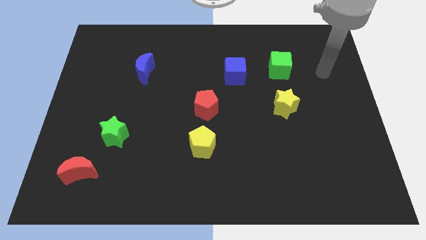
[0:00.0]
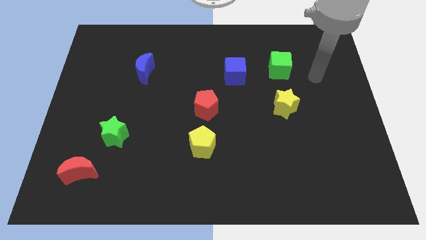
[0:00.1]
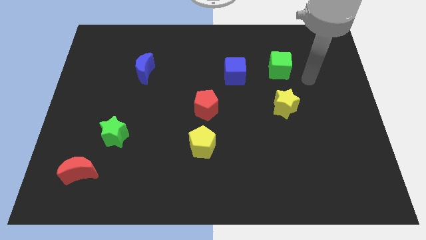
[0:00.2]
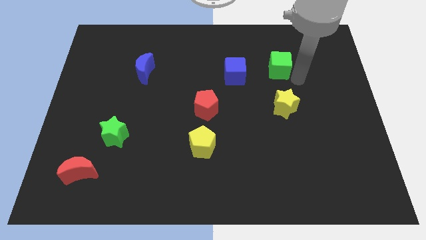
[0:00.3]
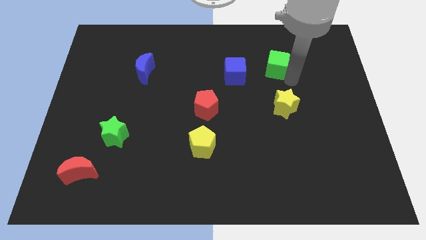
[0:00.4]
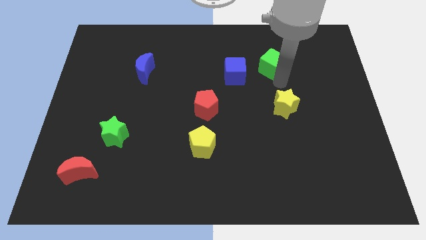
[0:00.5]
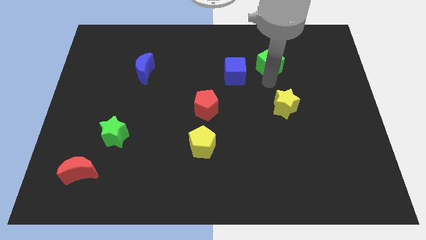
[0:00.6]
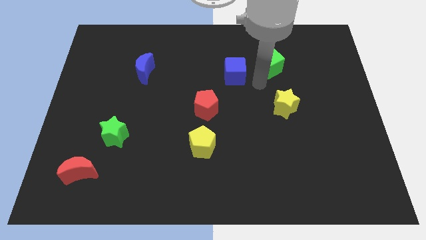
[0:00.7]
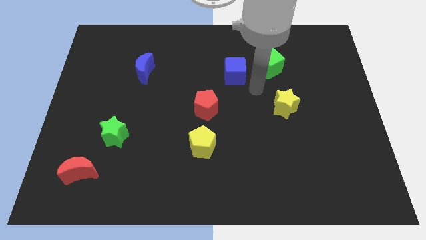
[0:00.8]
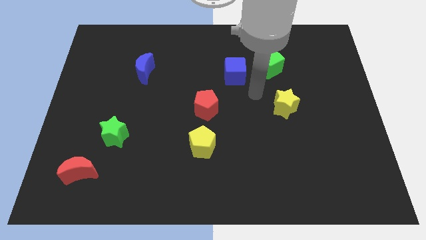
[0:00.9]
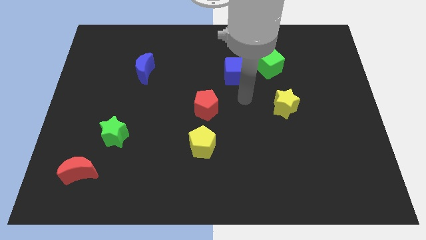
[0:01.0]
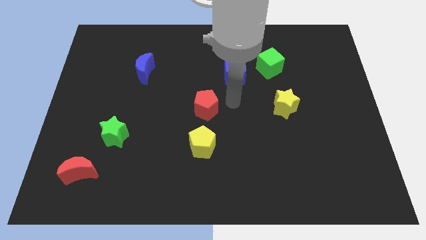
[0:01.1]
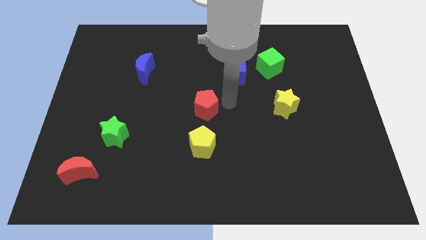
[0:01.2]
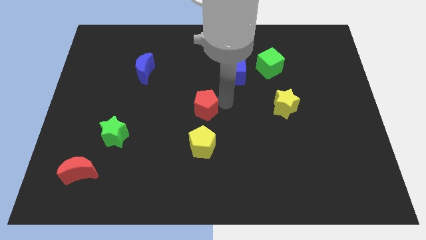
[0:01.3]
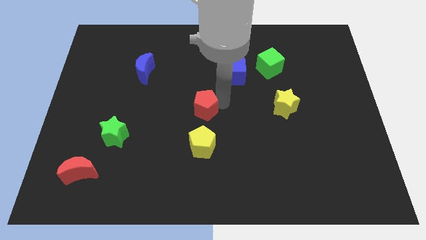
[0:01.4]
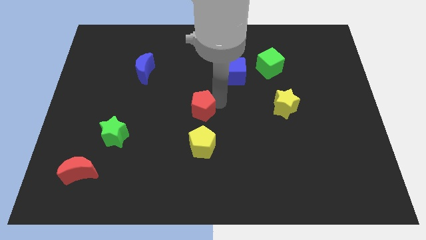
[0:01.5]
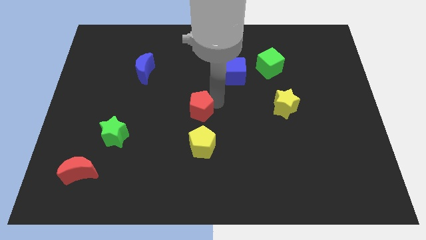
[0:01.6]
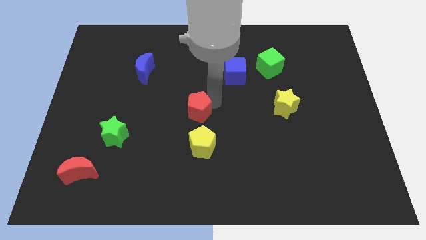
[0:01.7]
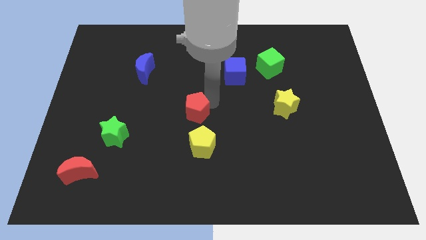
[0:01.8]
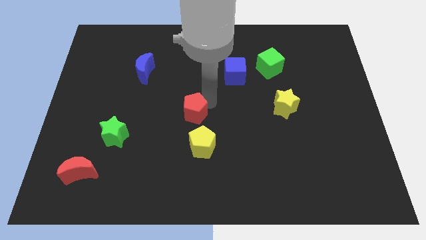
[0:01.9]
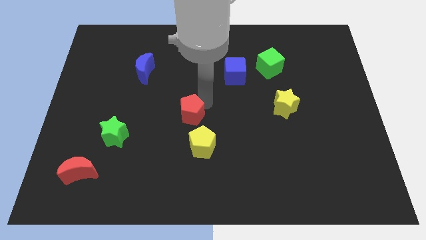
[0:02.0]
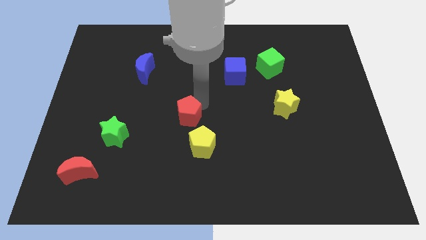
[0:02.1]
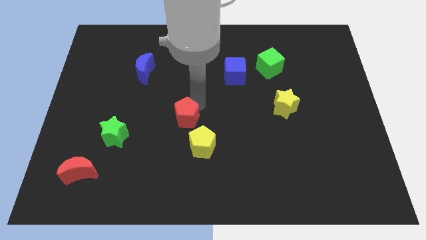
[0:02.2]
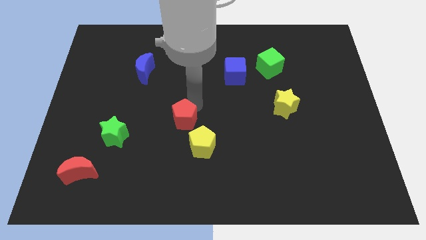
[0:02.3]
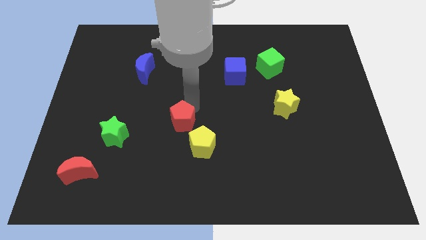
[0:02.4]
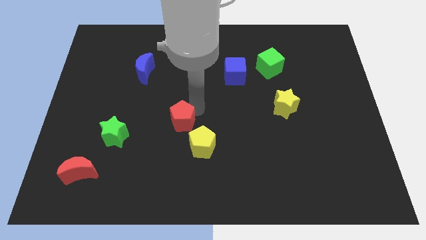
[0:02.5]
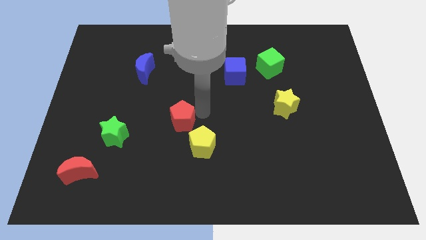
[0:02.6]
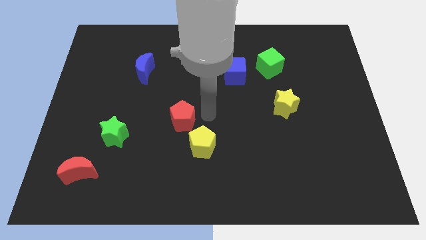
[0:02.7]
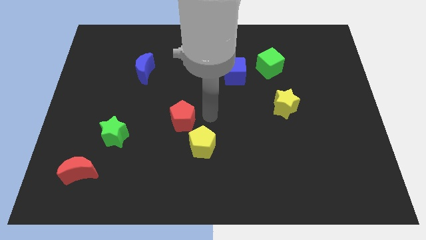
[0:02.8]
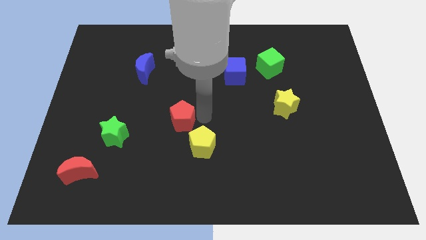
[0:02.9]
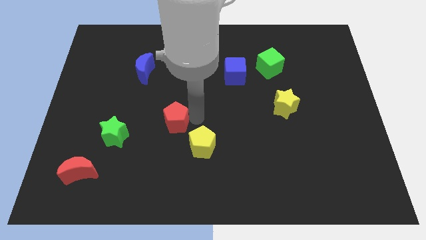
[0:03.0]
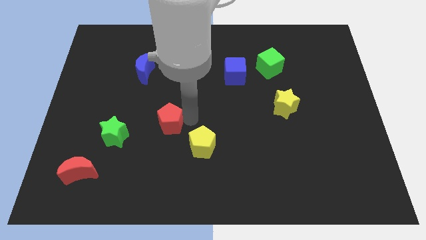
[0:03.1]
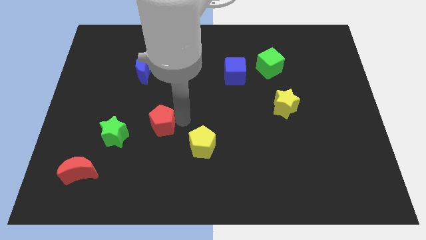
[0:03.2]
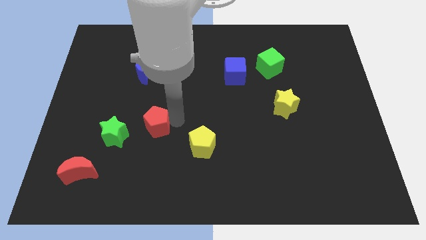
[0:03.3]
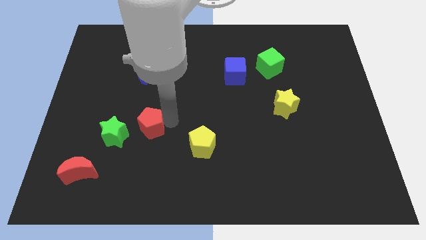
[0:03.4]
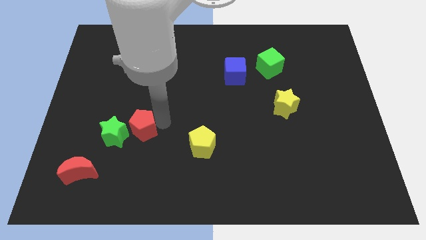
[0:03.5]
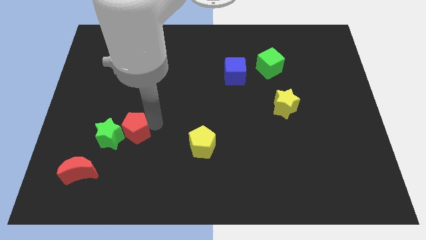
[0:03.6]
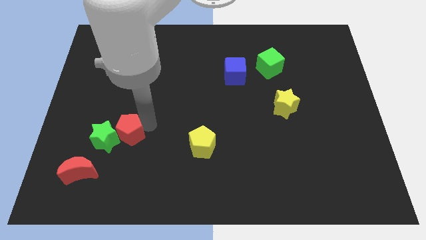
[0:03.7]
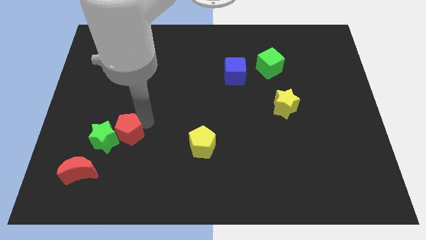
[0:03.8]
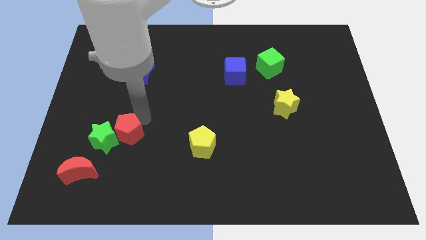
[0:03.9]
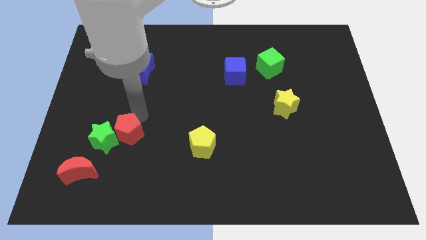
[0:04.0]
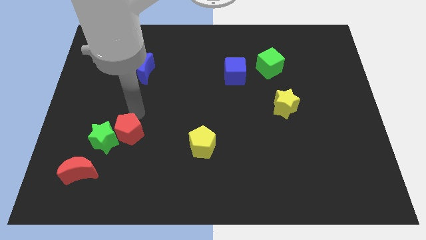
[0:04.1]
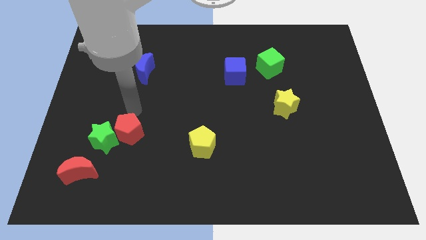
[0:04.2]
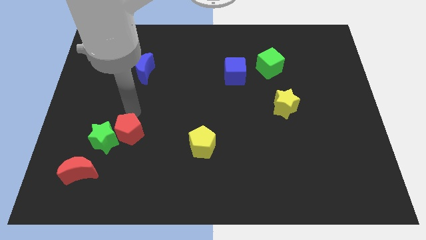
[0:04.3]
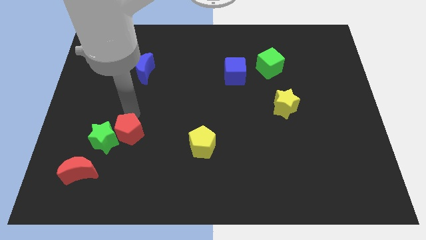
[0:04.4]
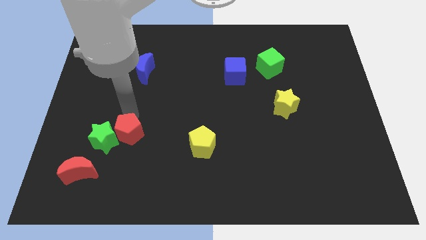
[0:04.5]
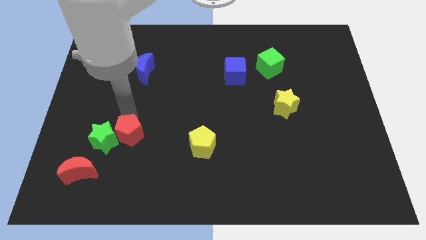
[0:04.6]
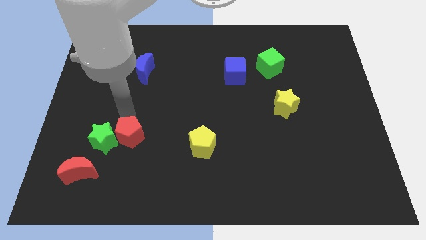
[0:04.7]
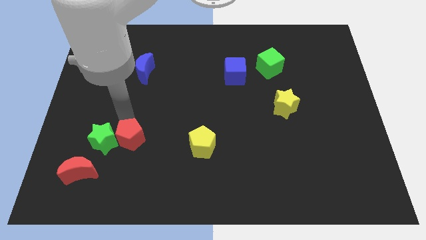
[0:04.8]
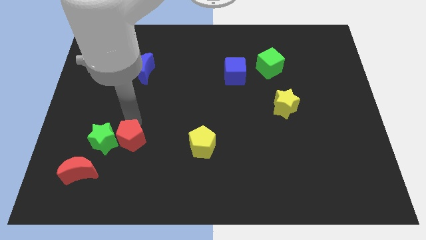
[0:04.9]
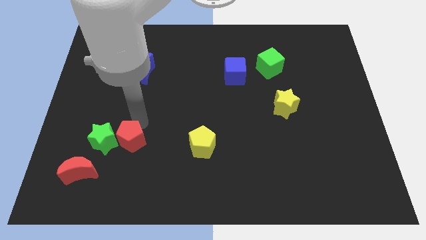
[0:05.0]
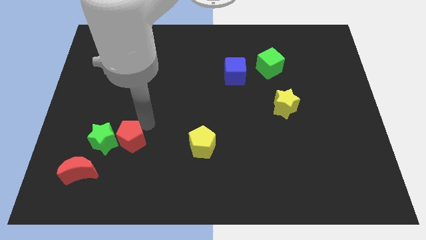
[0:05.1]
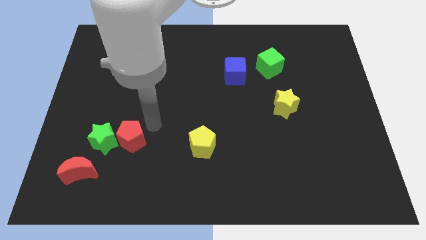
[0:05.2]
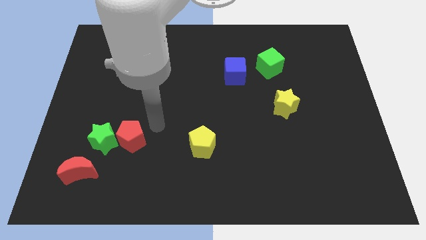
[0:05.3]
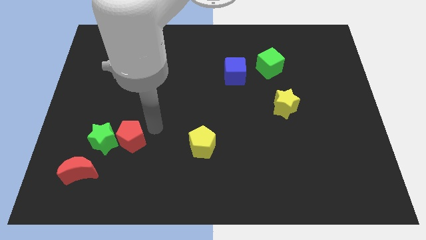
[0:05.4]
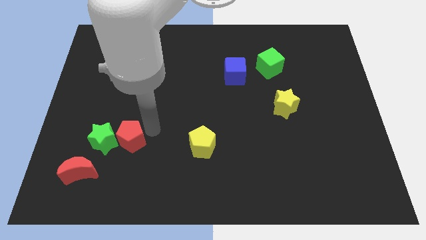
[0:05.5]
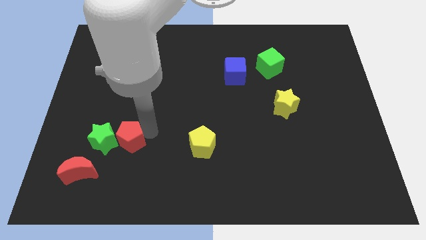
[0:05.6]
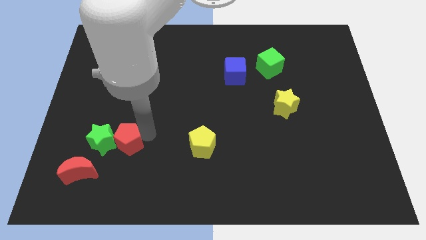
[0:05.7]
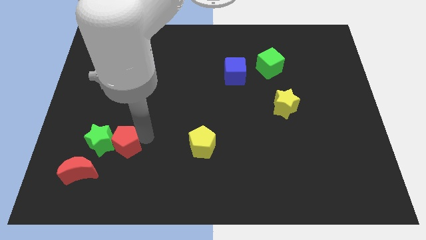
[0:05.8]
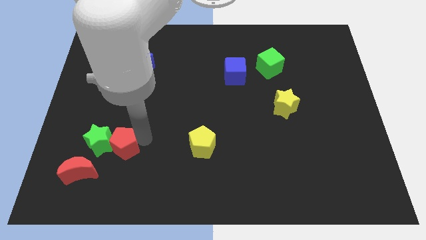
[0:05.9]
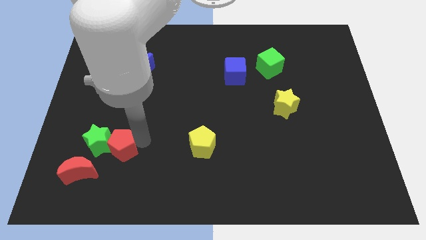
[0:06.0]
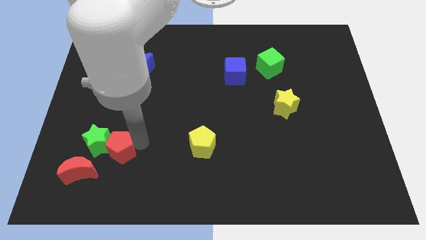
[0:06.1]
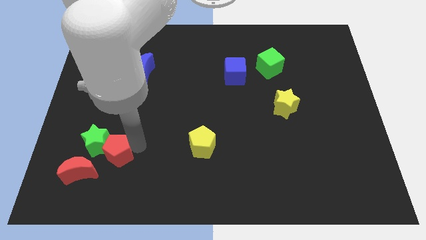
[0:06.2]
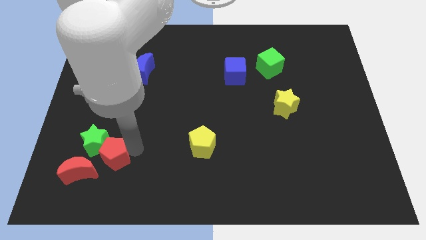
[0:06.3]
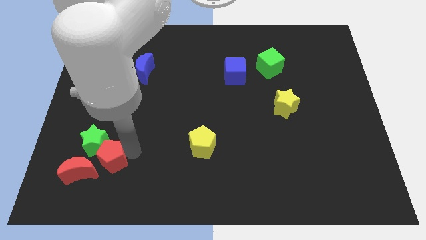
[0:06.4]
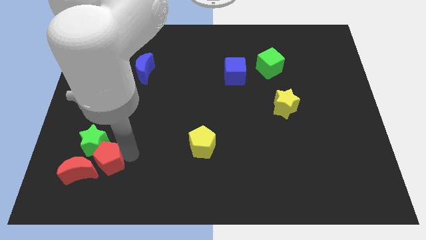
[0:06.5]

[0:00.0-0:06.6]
put the red pentagon close to the red moon

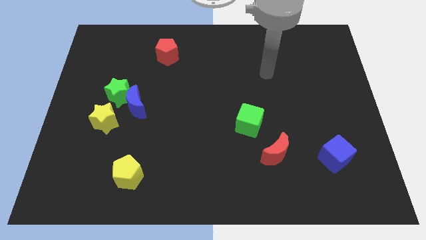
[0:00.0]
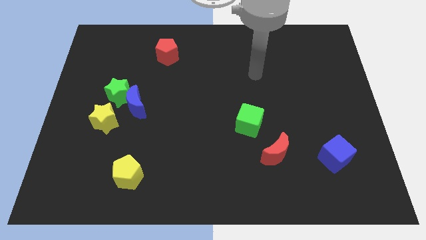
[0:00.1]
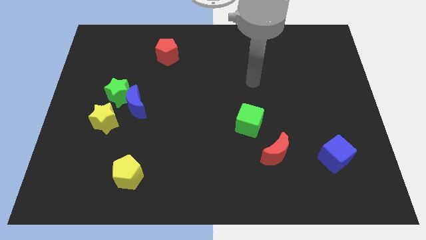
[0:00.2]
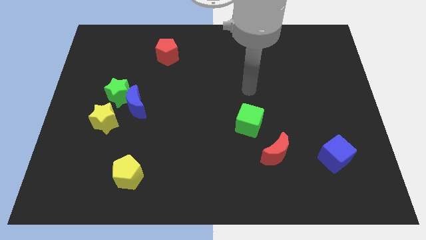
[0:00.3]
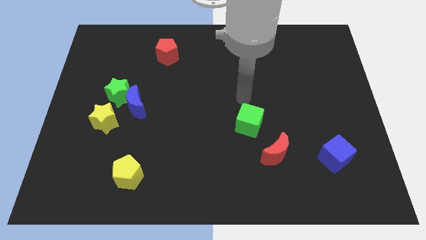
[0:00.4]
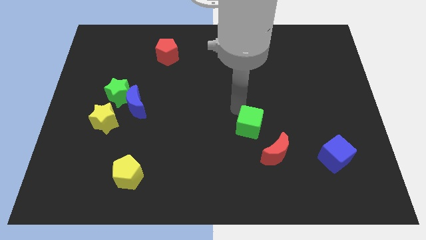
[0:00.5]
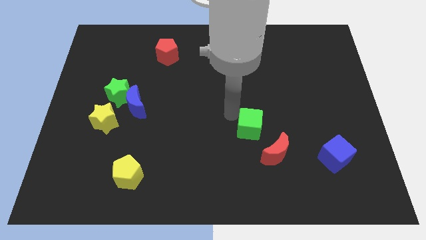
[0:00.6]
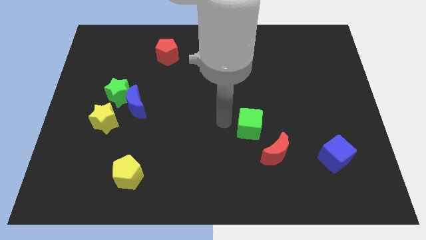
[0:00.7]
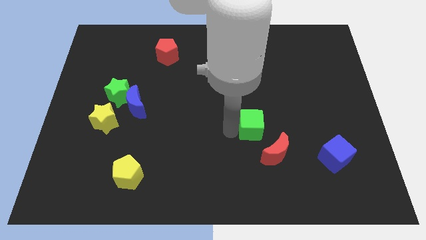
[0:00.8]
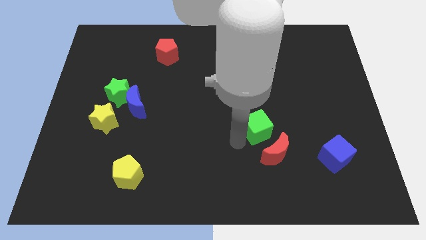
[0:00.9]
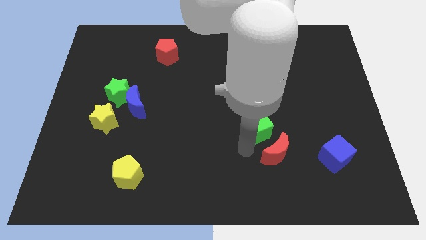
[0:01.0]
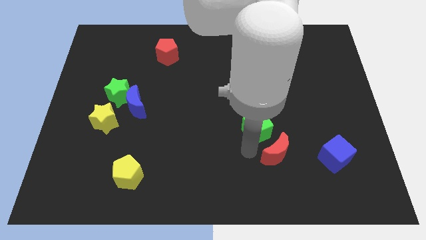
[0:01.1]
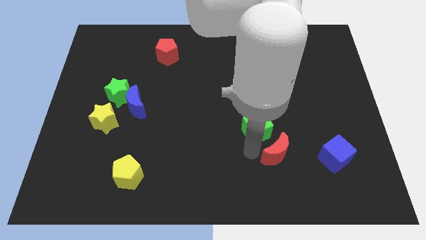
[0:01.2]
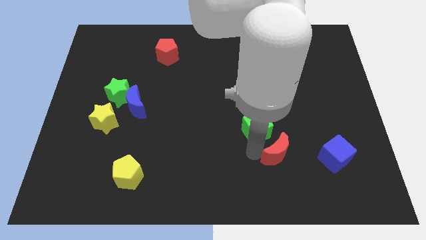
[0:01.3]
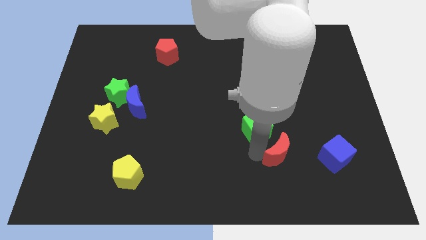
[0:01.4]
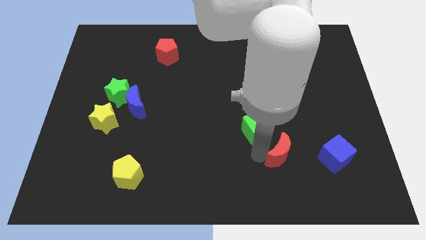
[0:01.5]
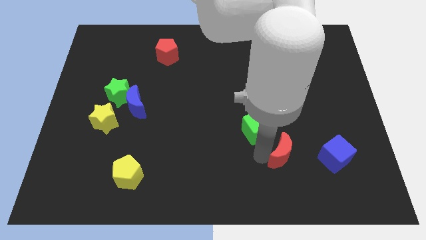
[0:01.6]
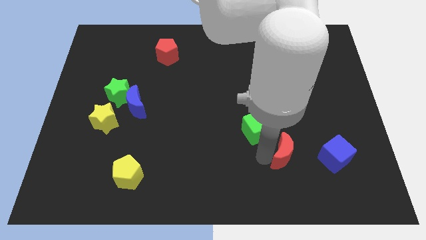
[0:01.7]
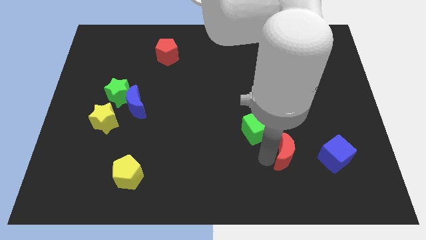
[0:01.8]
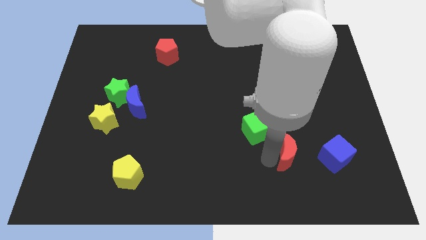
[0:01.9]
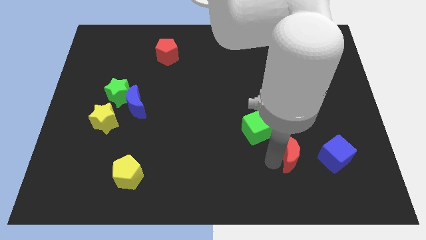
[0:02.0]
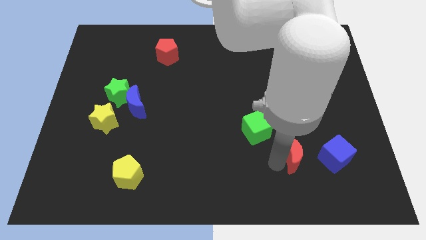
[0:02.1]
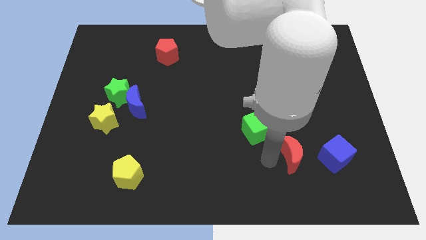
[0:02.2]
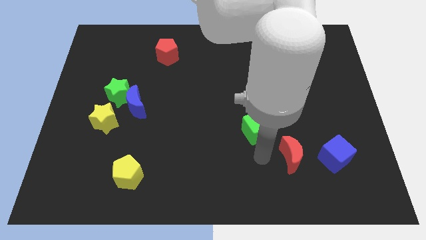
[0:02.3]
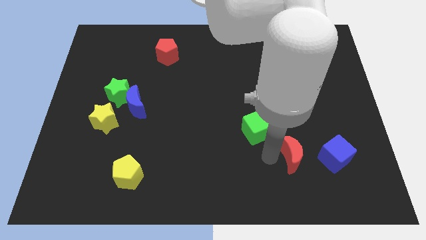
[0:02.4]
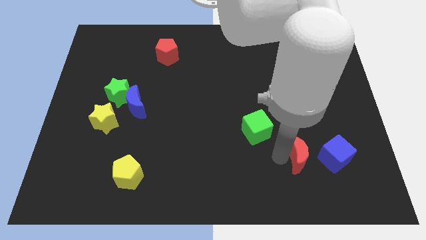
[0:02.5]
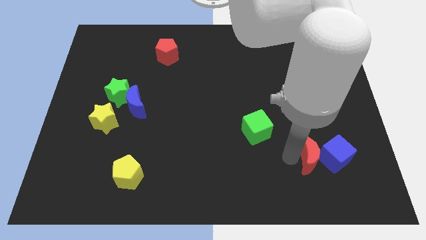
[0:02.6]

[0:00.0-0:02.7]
push the red moon to the blue cube
